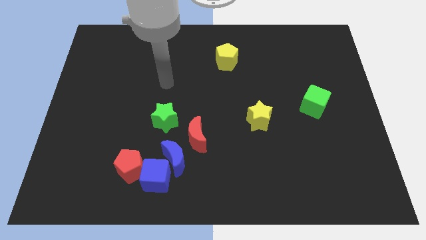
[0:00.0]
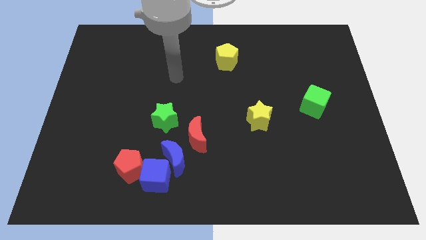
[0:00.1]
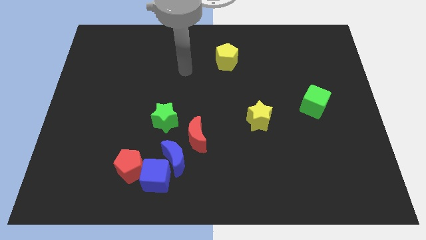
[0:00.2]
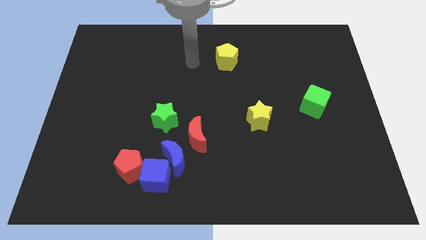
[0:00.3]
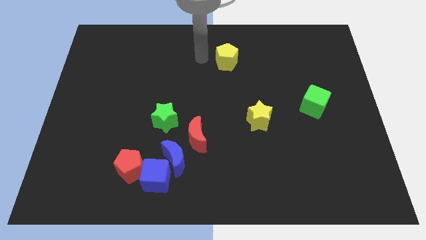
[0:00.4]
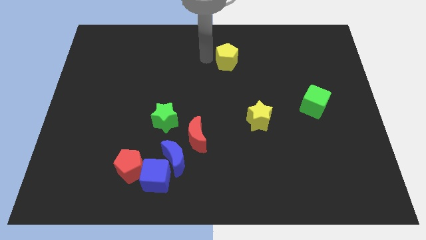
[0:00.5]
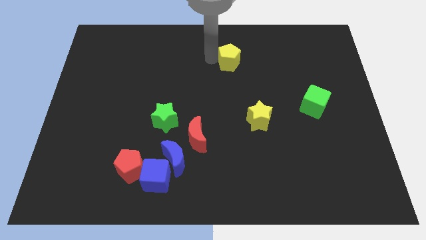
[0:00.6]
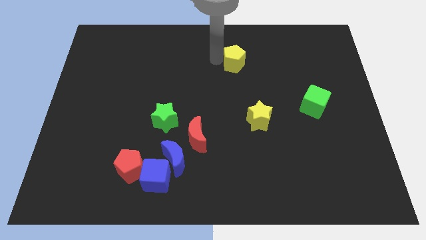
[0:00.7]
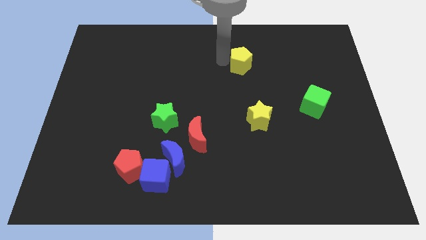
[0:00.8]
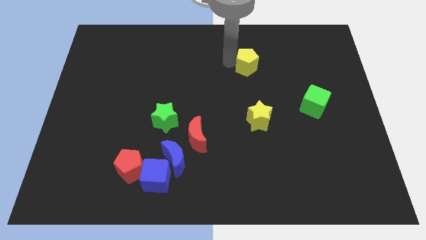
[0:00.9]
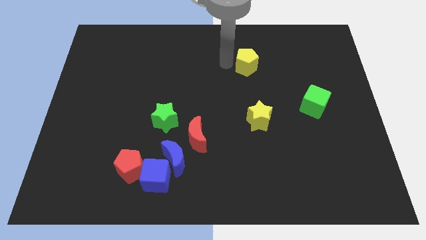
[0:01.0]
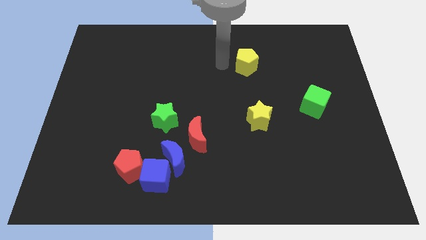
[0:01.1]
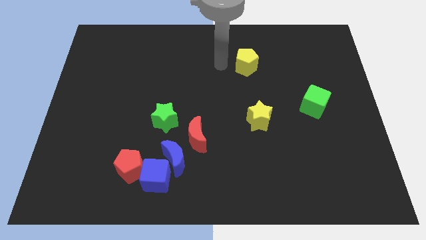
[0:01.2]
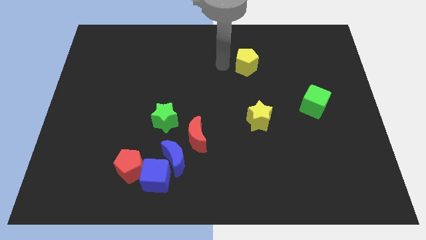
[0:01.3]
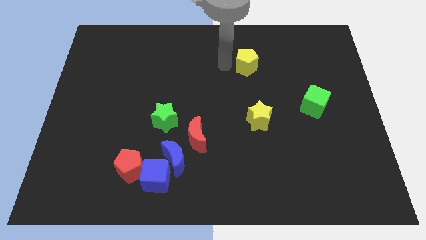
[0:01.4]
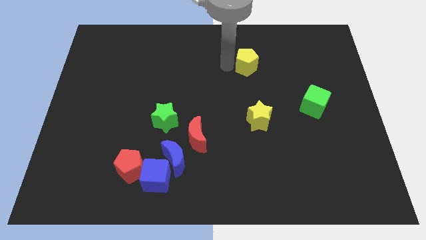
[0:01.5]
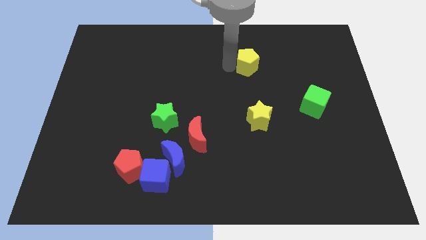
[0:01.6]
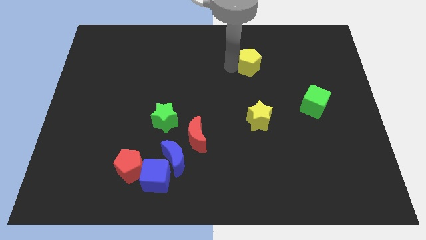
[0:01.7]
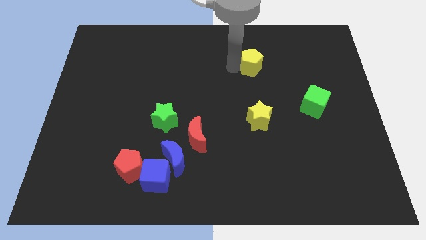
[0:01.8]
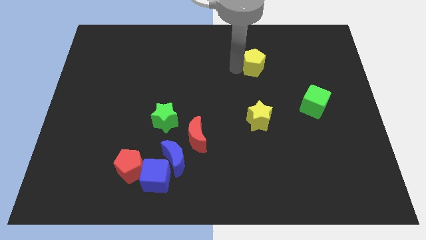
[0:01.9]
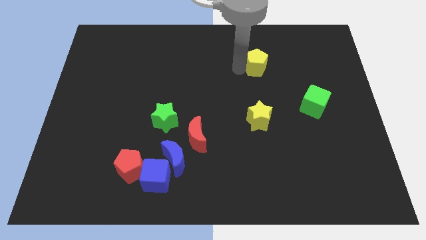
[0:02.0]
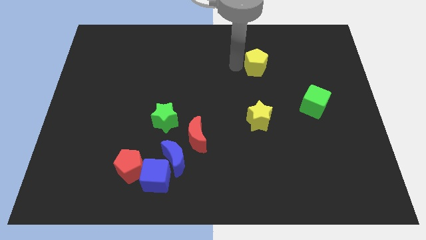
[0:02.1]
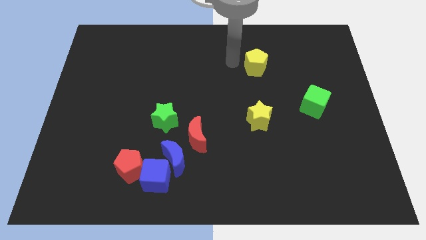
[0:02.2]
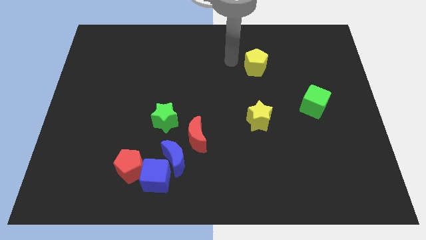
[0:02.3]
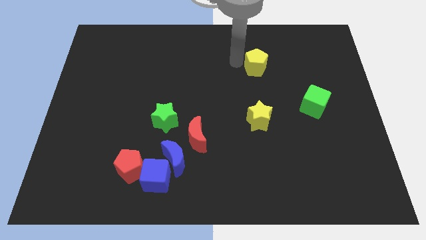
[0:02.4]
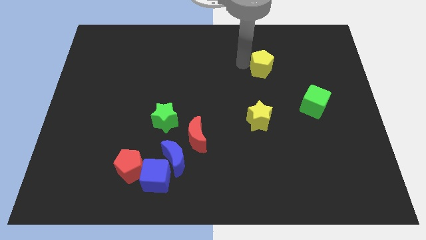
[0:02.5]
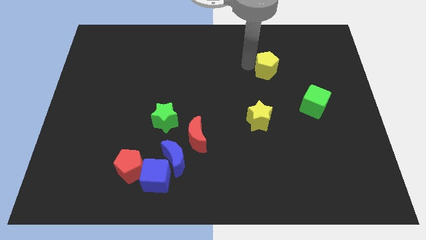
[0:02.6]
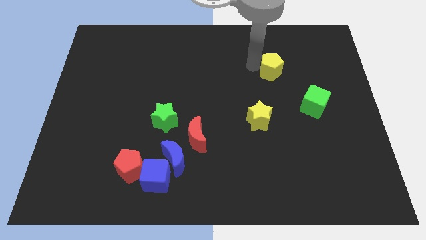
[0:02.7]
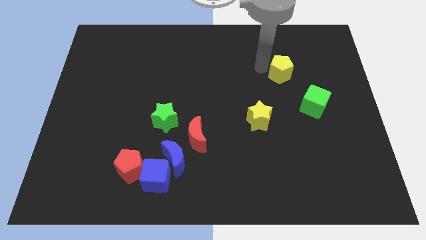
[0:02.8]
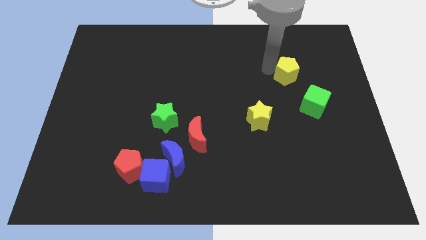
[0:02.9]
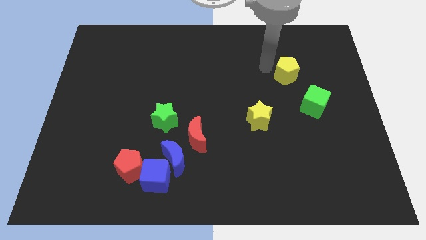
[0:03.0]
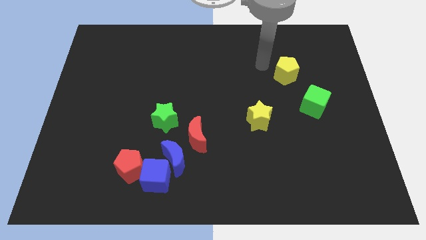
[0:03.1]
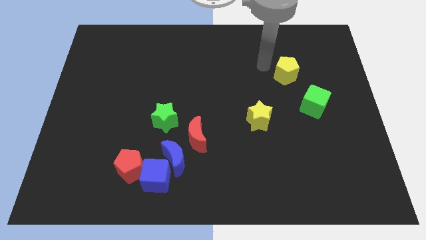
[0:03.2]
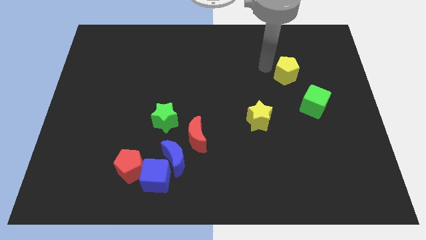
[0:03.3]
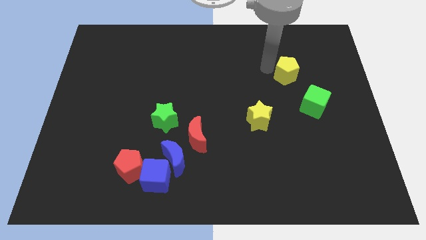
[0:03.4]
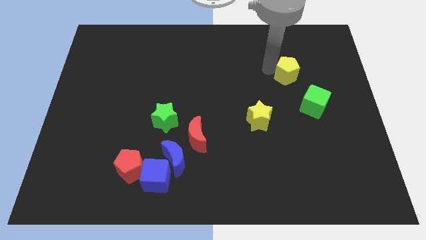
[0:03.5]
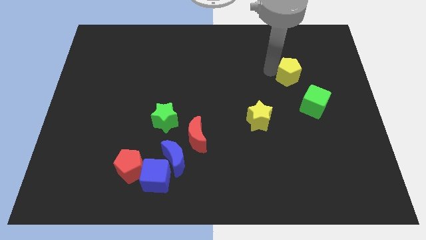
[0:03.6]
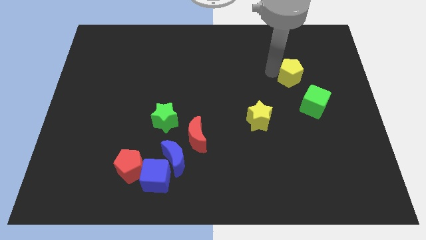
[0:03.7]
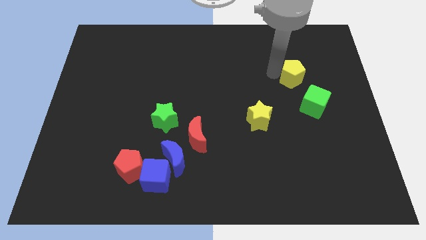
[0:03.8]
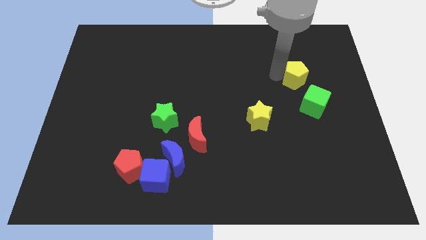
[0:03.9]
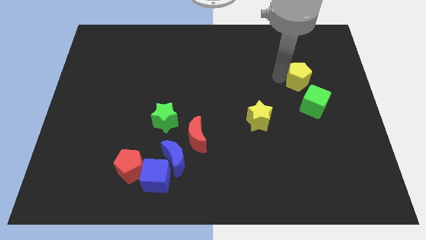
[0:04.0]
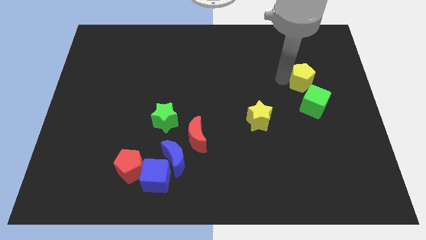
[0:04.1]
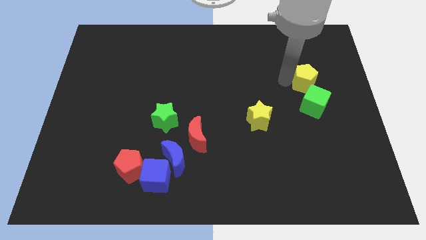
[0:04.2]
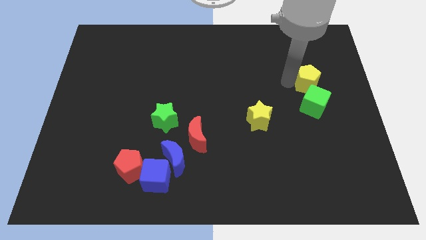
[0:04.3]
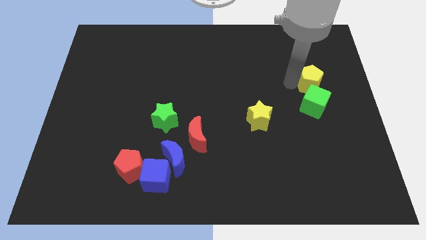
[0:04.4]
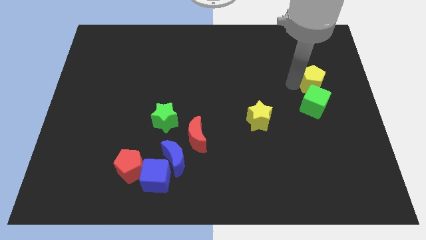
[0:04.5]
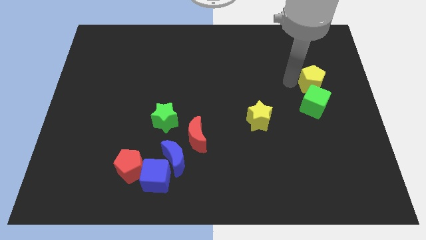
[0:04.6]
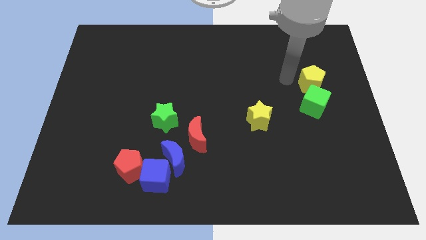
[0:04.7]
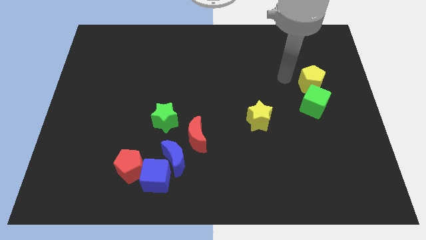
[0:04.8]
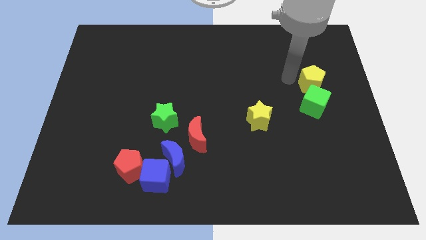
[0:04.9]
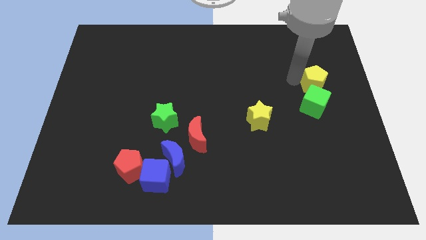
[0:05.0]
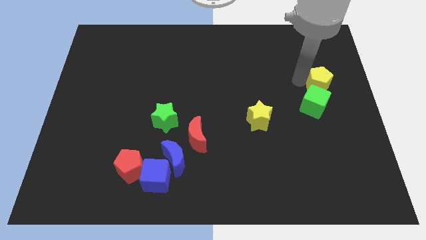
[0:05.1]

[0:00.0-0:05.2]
put the yellow pentagon to the center right
